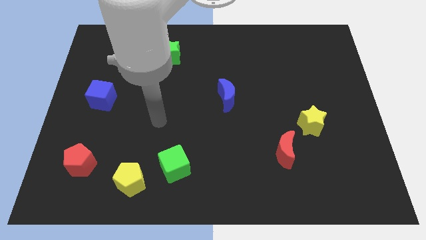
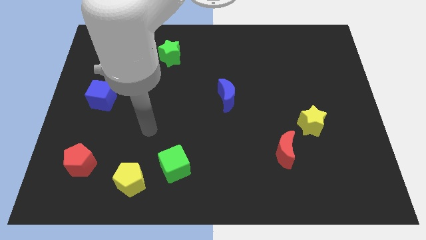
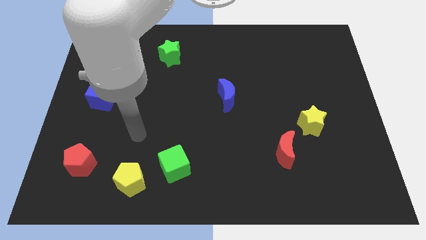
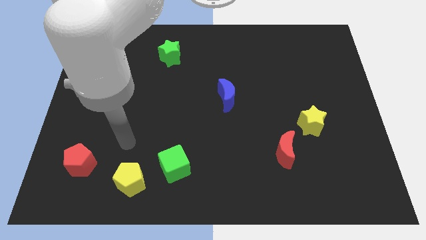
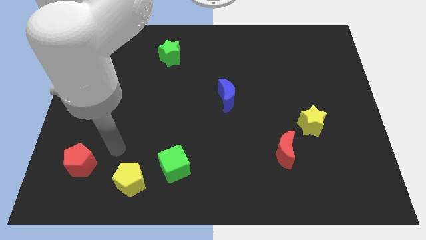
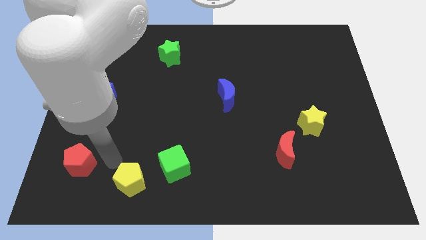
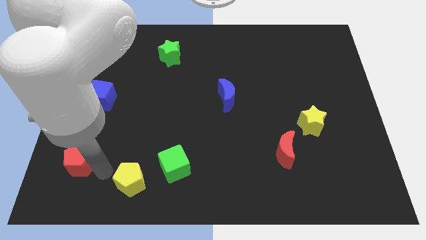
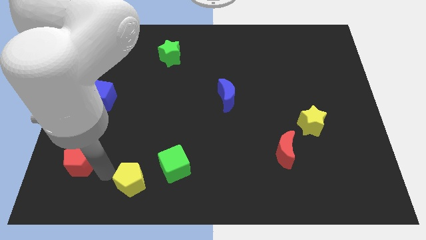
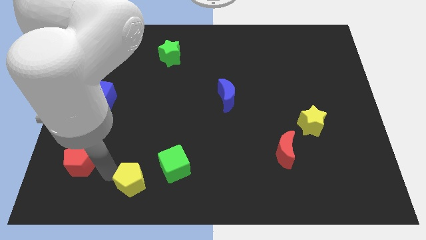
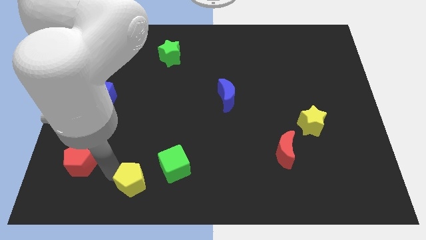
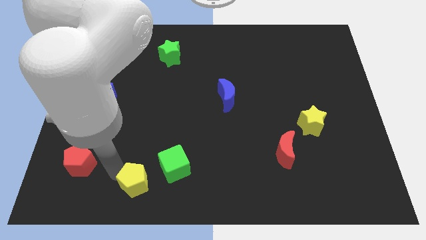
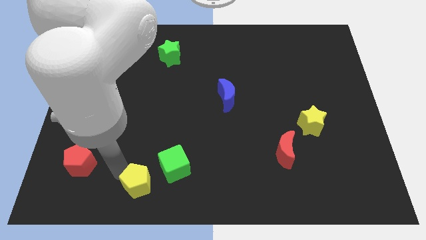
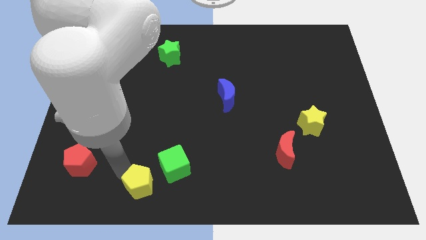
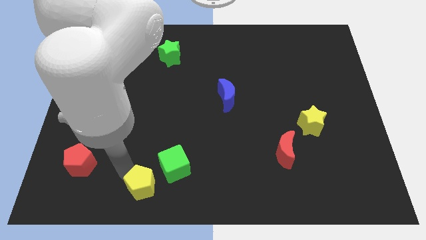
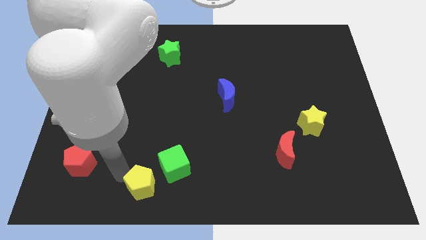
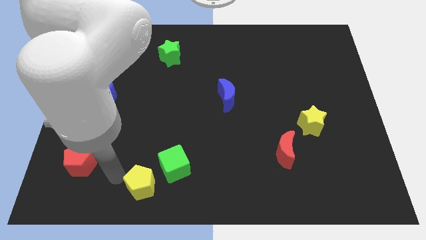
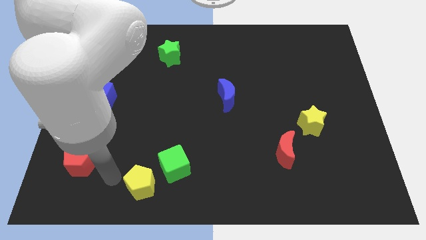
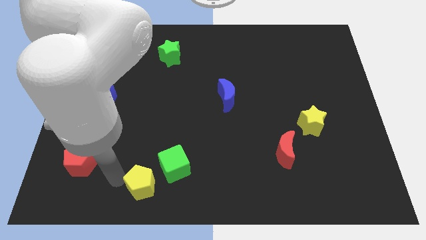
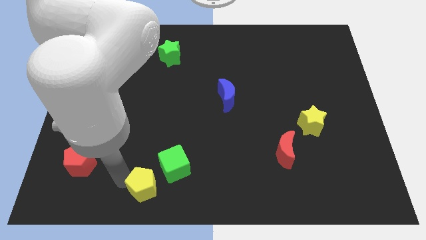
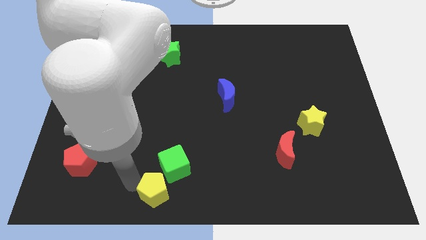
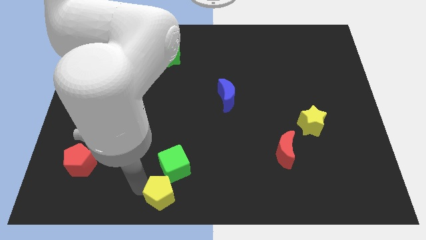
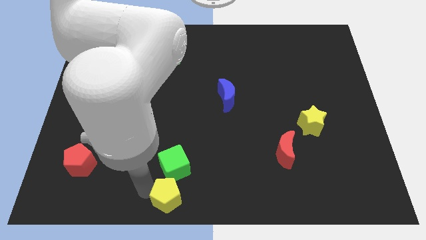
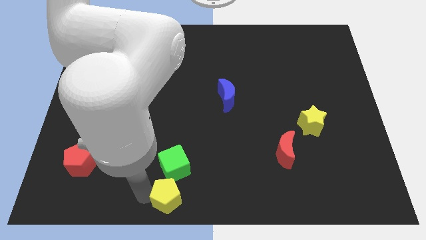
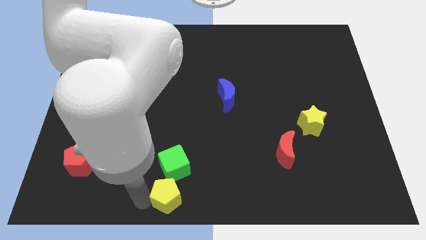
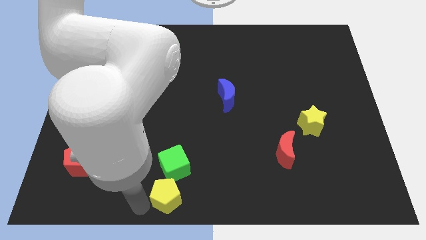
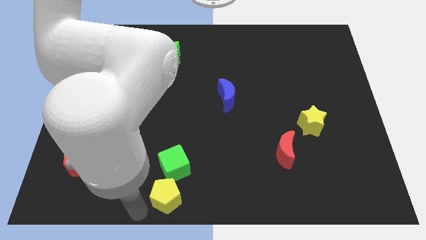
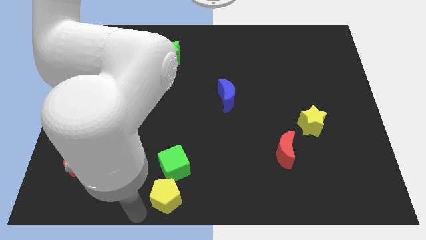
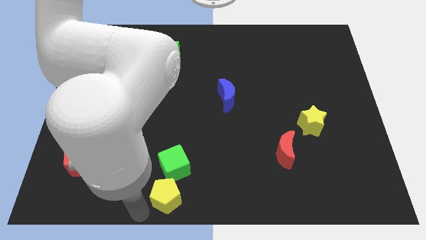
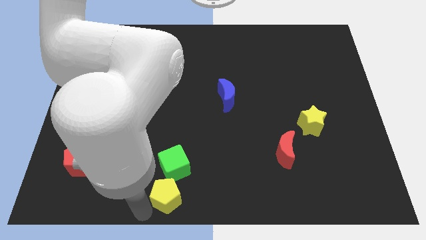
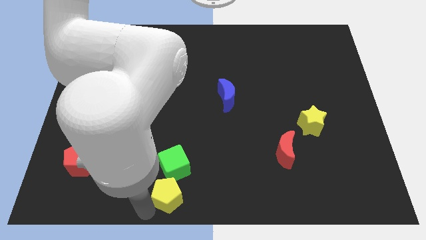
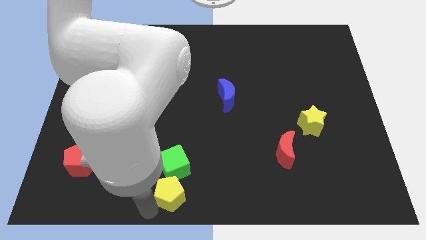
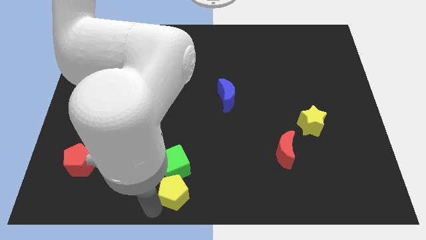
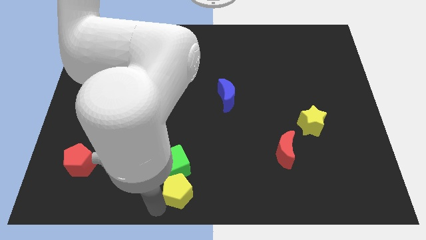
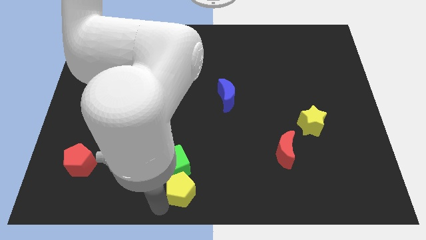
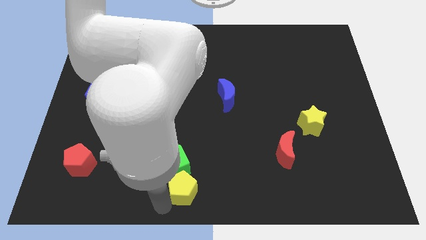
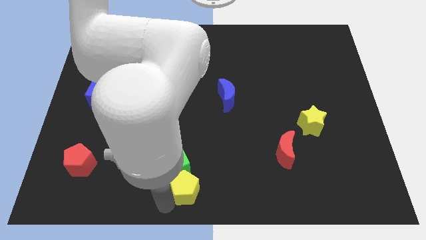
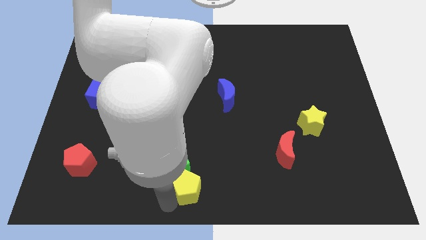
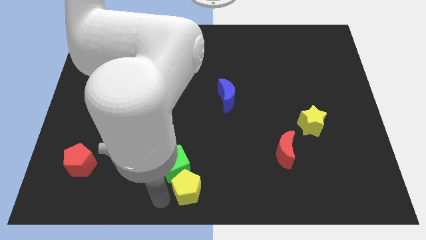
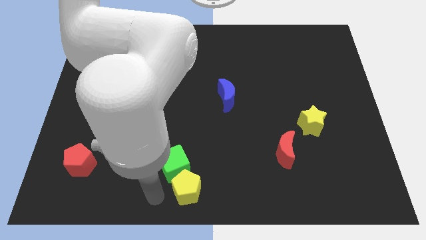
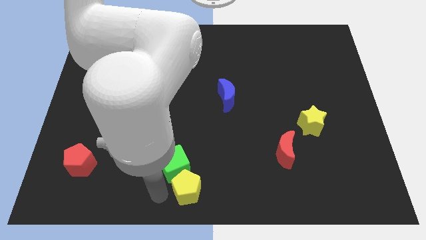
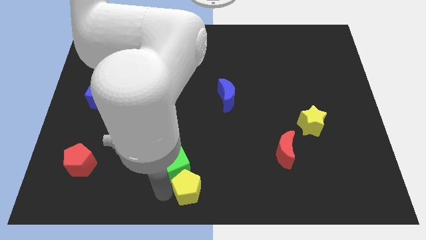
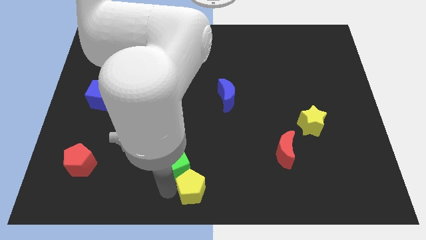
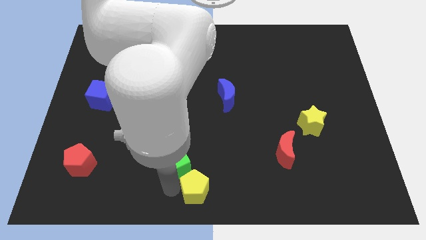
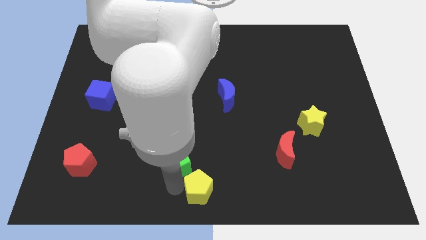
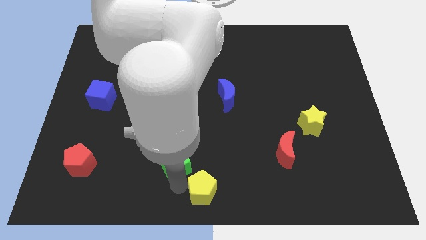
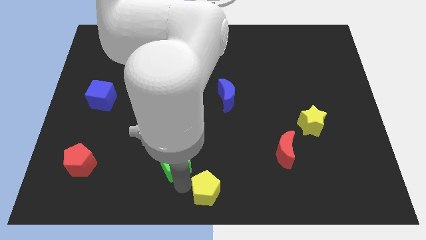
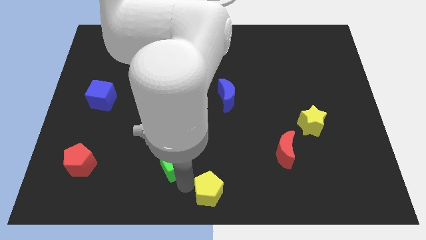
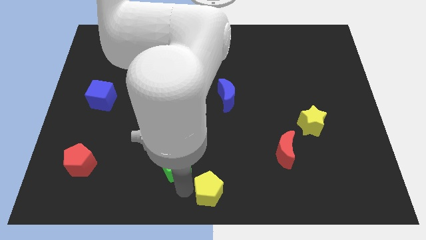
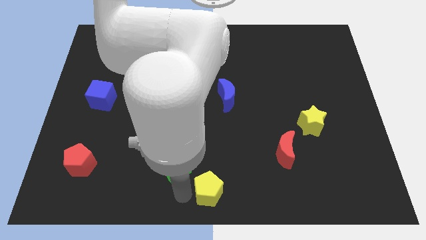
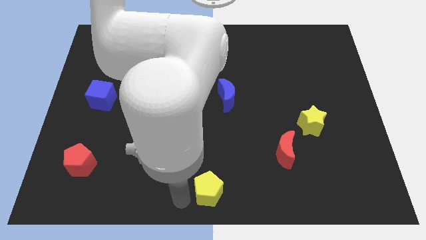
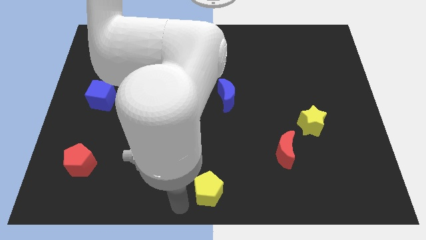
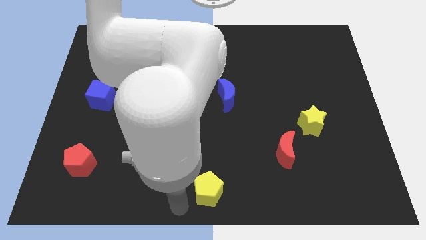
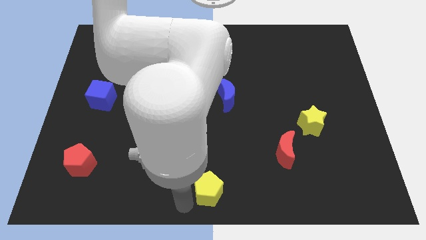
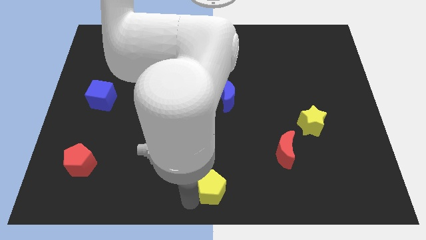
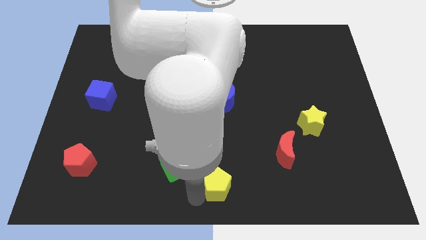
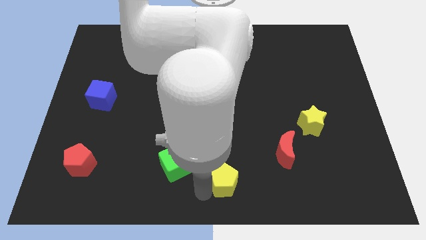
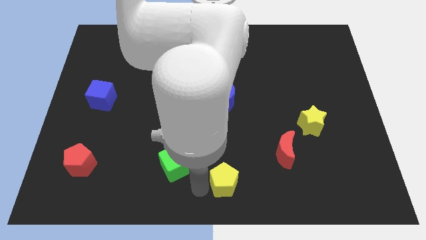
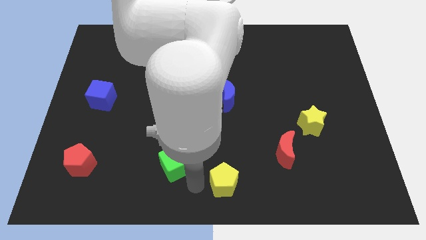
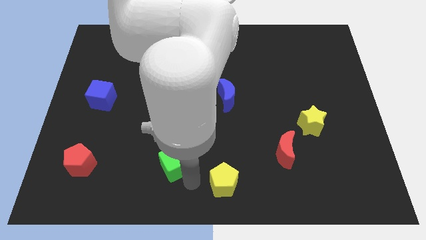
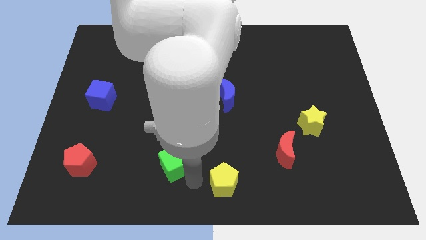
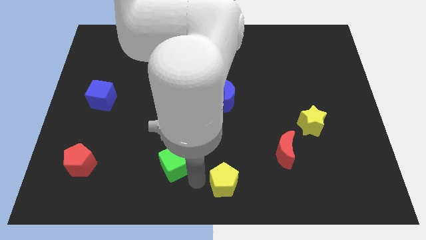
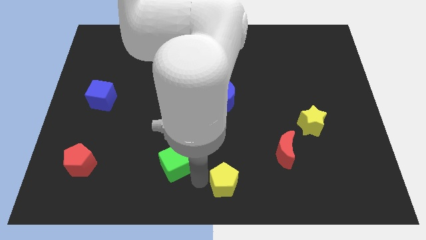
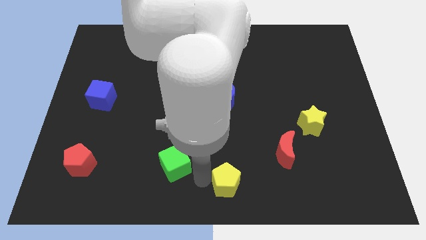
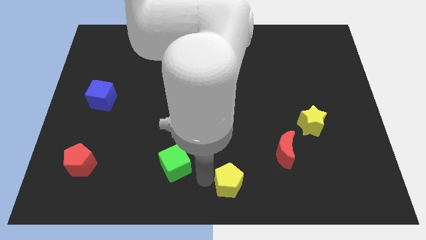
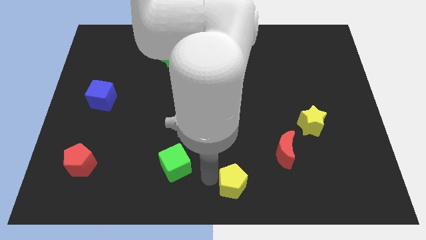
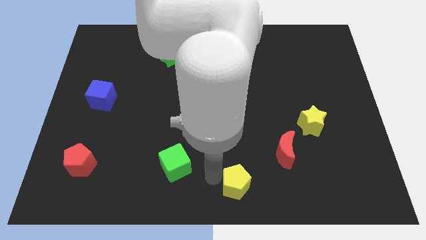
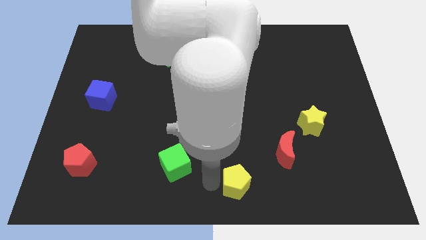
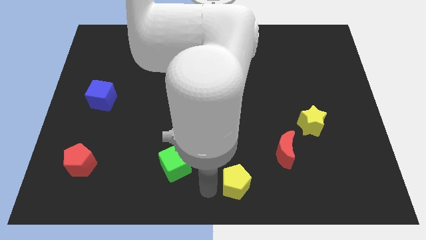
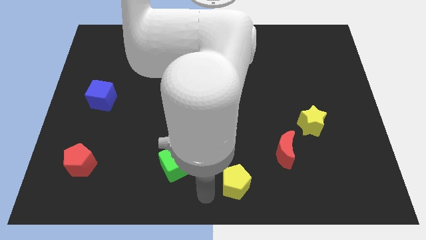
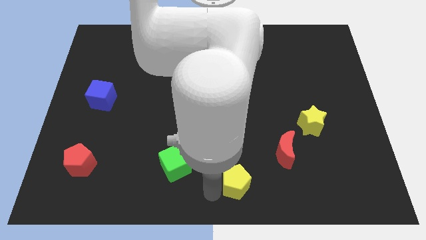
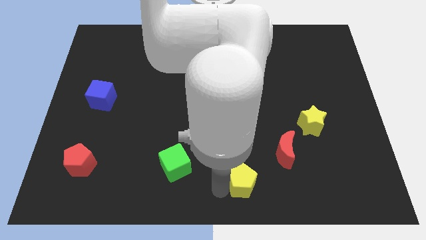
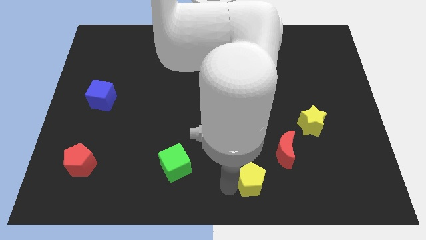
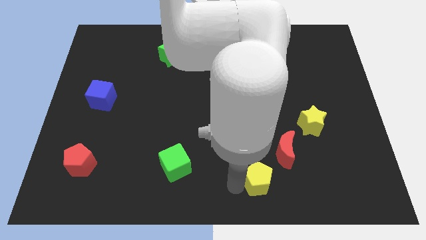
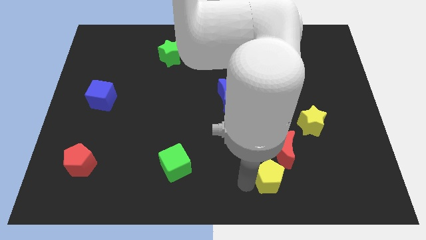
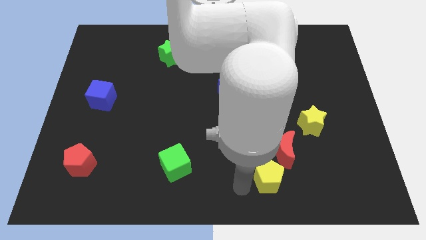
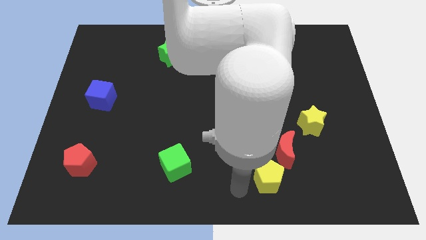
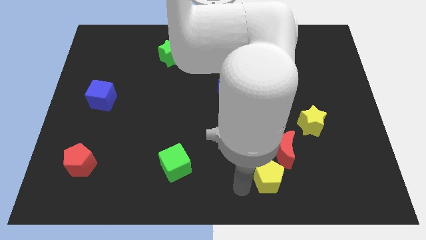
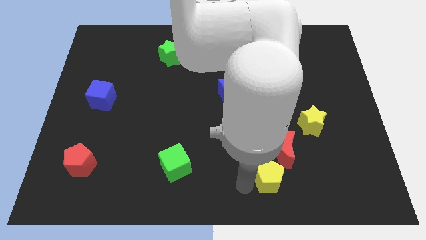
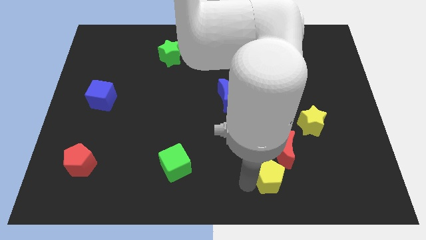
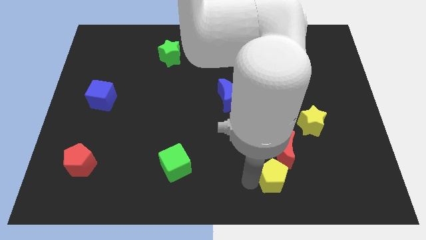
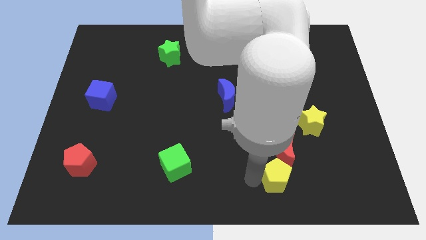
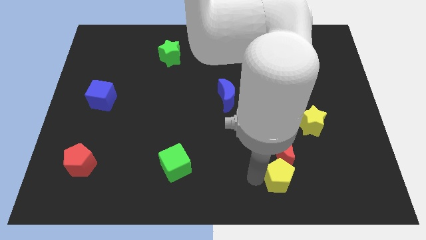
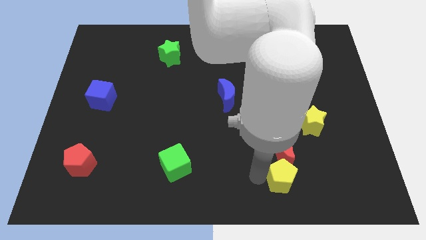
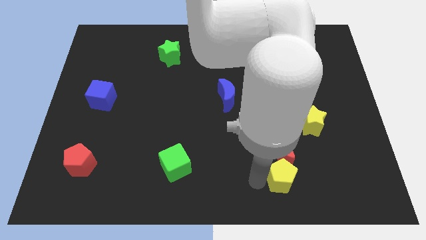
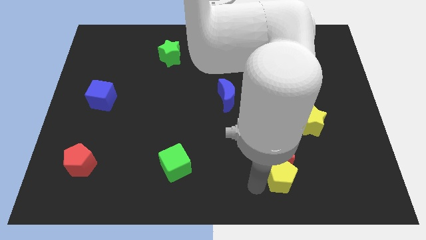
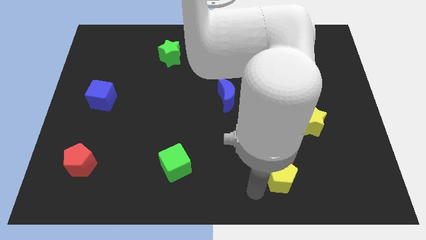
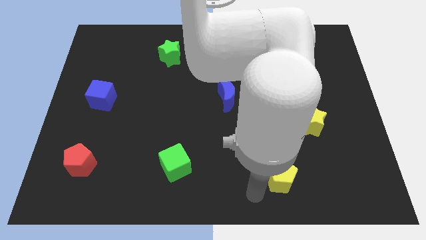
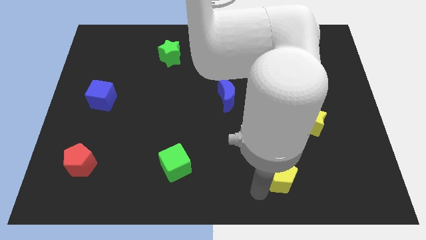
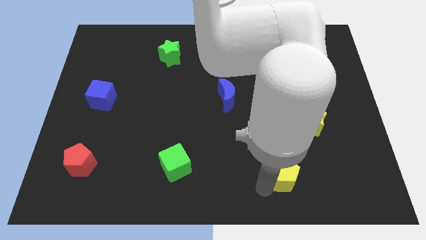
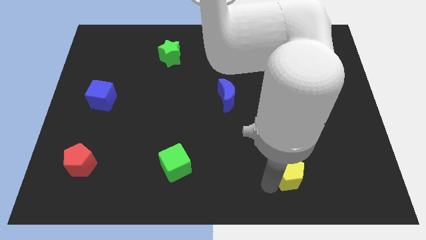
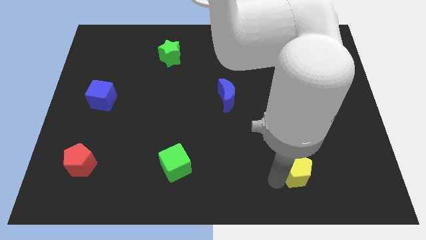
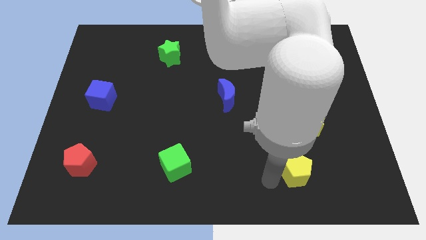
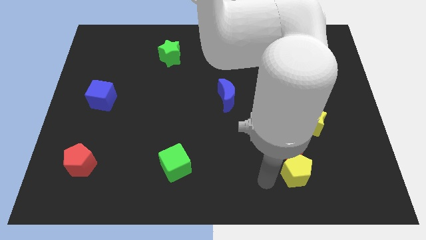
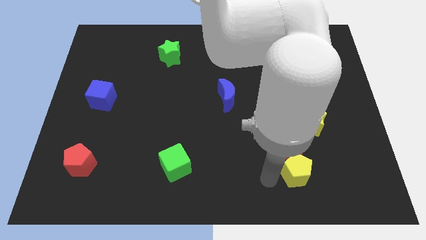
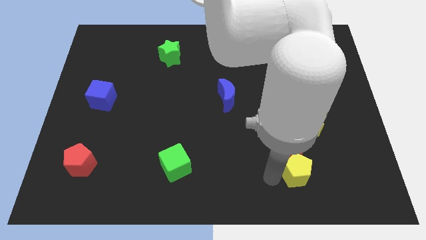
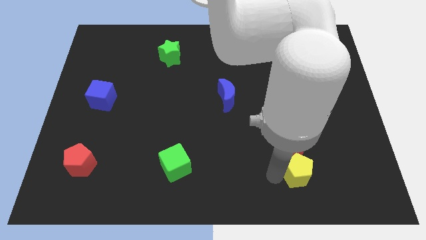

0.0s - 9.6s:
move the yellow pentagon below the yellow star
